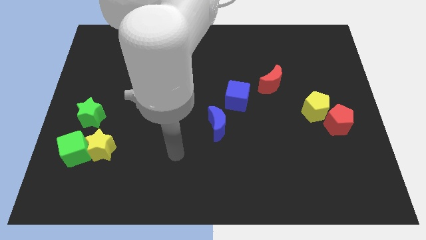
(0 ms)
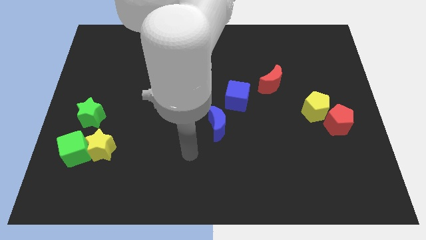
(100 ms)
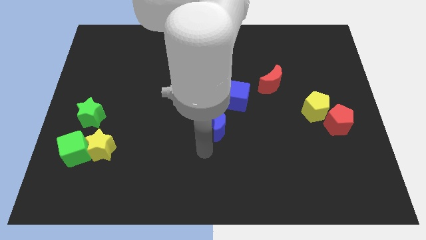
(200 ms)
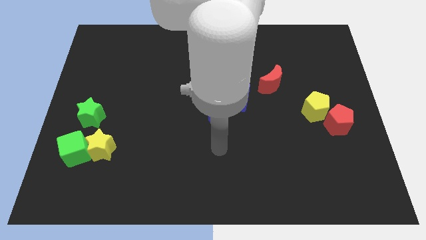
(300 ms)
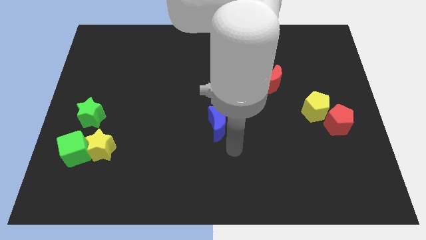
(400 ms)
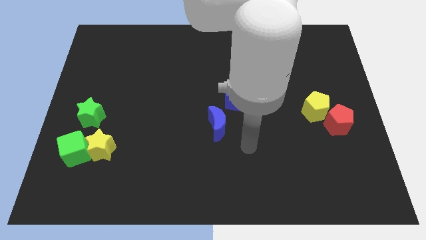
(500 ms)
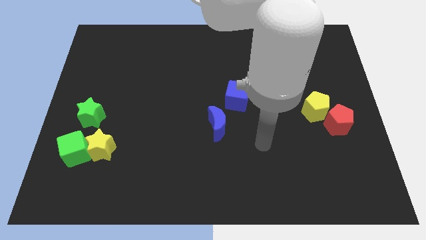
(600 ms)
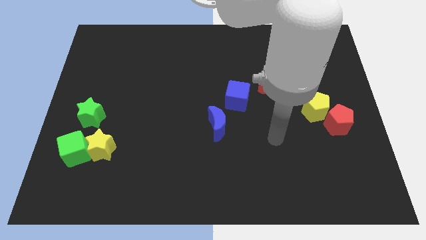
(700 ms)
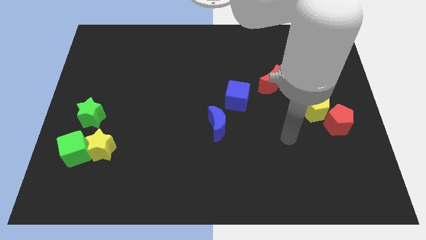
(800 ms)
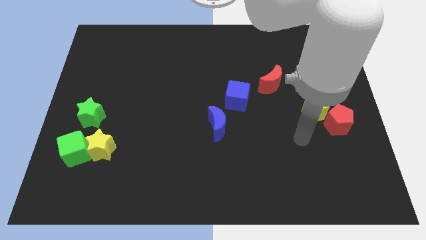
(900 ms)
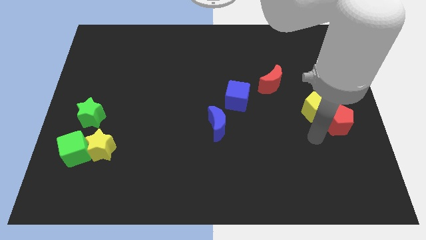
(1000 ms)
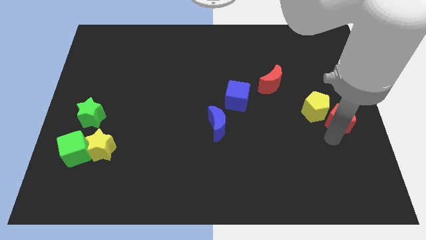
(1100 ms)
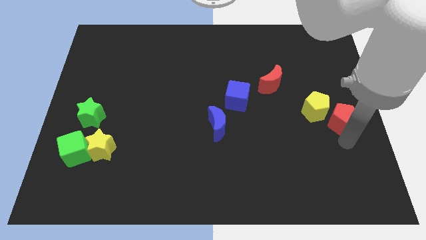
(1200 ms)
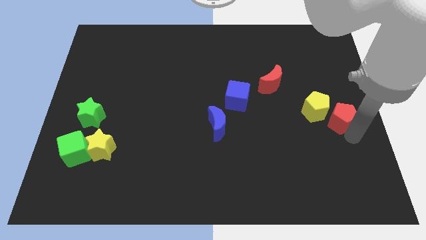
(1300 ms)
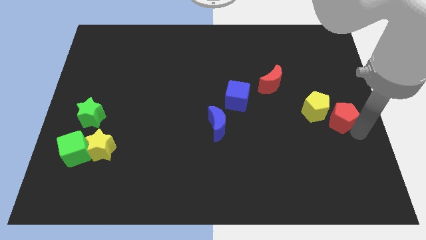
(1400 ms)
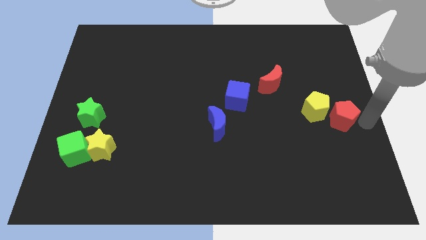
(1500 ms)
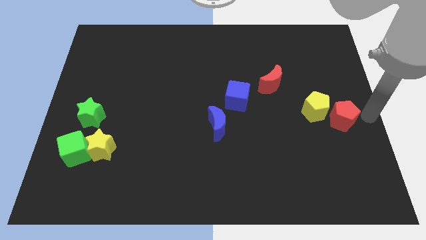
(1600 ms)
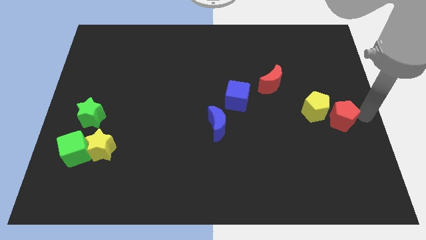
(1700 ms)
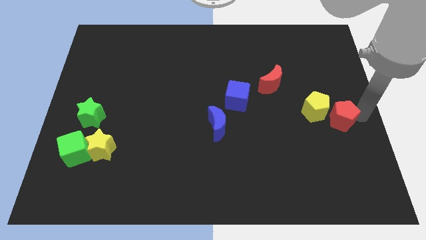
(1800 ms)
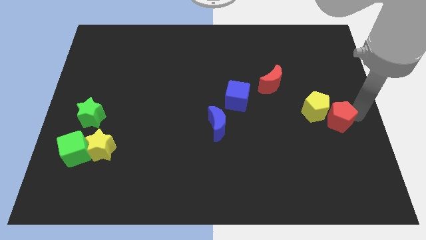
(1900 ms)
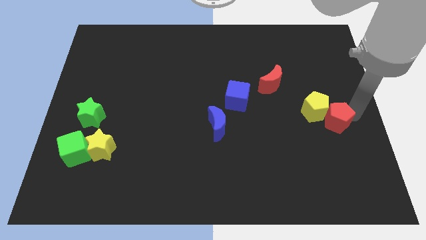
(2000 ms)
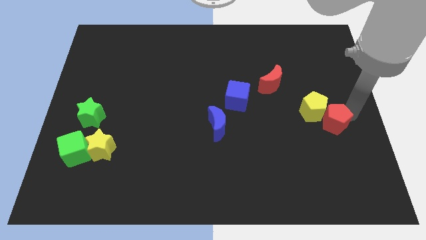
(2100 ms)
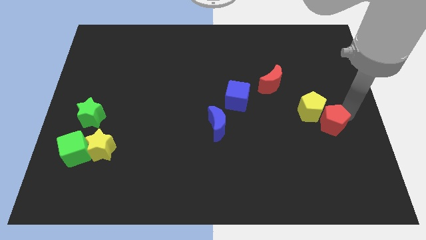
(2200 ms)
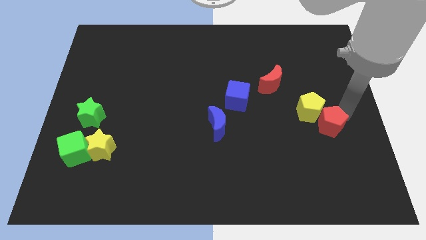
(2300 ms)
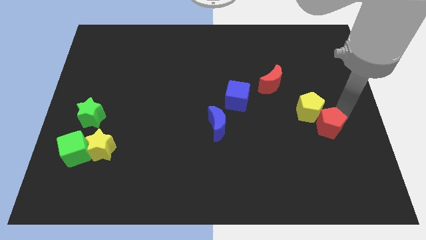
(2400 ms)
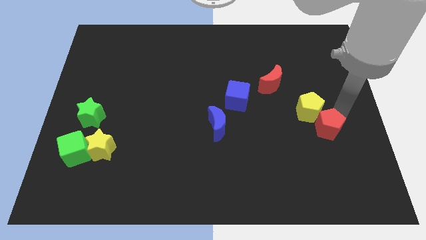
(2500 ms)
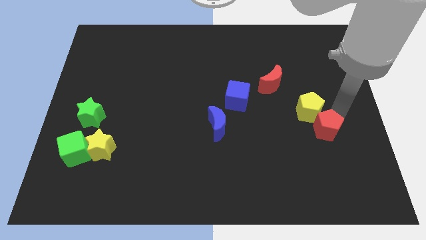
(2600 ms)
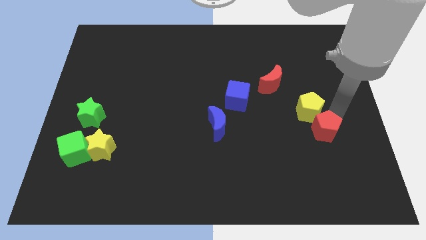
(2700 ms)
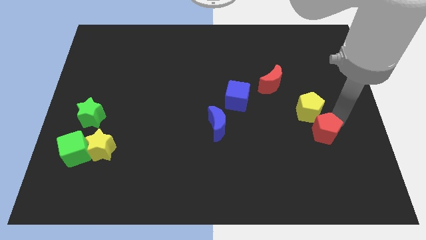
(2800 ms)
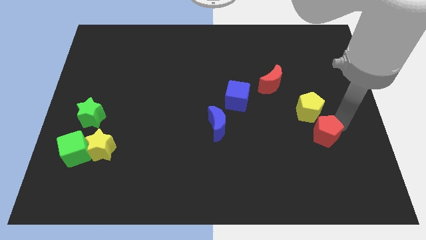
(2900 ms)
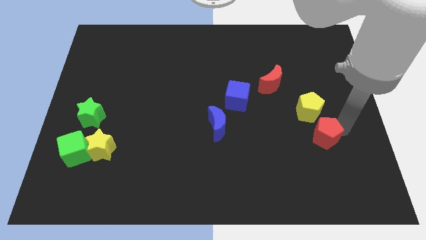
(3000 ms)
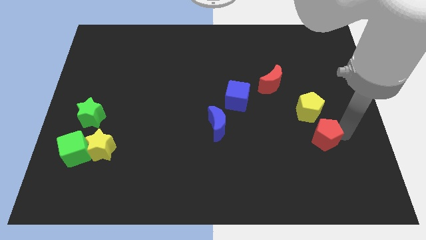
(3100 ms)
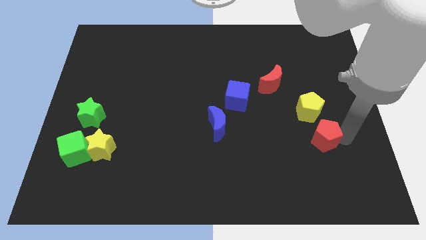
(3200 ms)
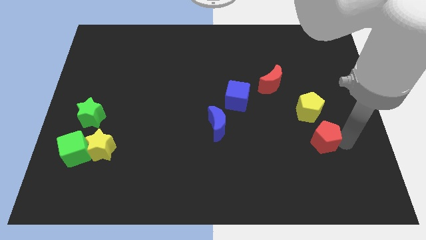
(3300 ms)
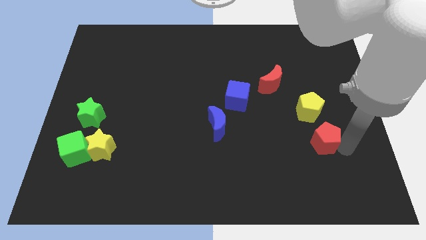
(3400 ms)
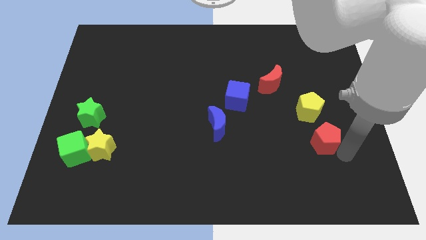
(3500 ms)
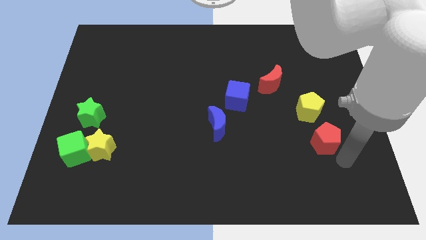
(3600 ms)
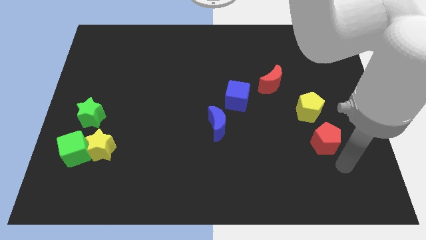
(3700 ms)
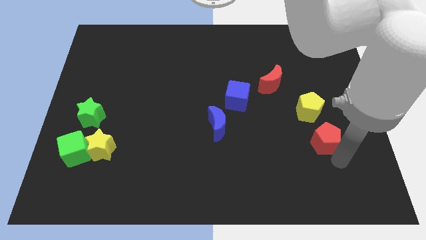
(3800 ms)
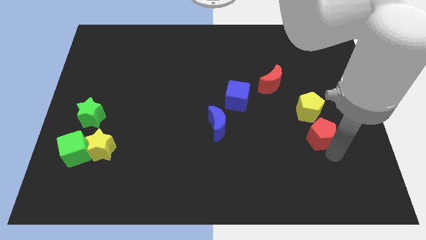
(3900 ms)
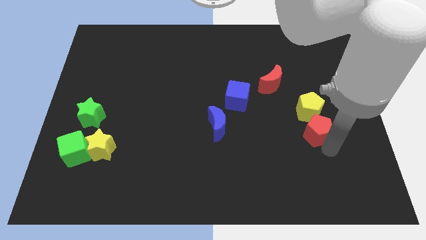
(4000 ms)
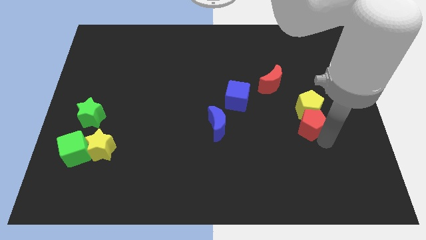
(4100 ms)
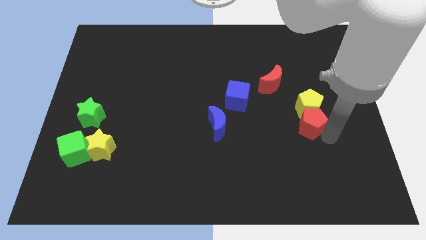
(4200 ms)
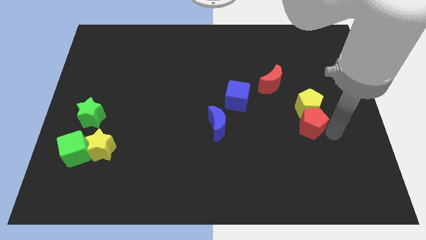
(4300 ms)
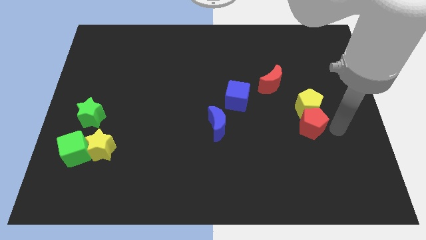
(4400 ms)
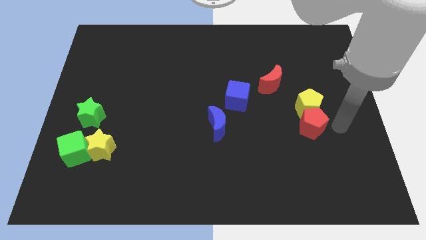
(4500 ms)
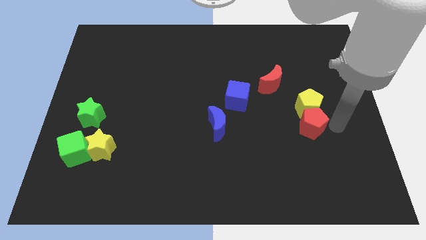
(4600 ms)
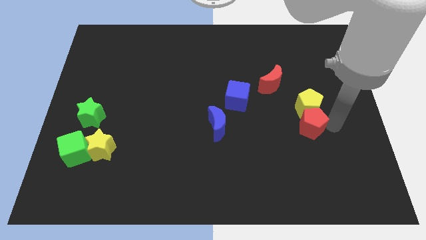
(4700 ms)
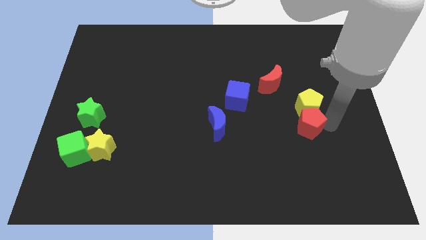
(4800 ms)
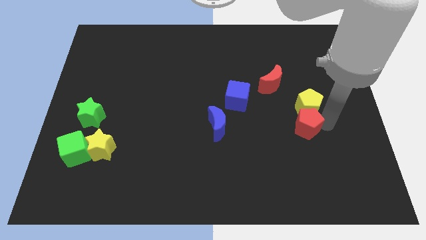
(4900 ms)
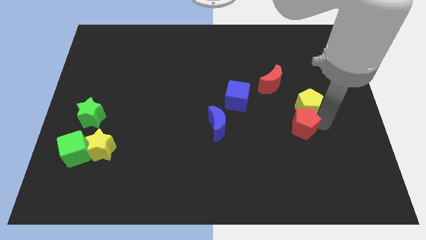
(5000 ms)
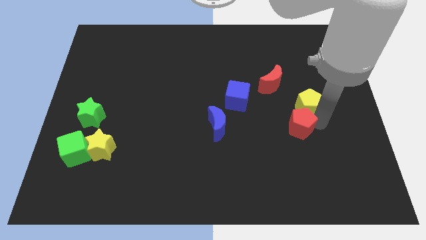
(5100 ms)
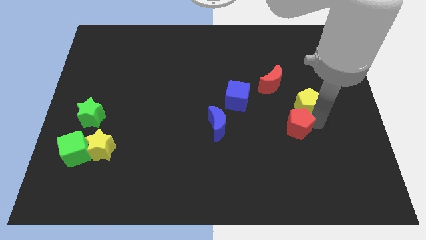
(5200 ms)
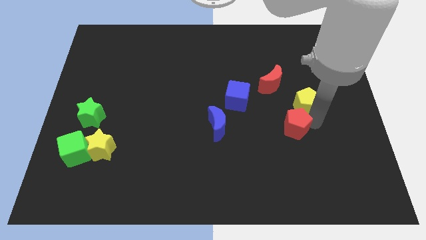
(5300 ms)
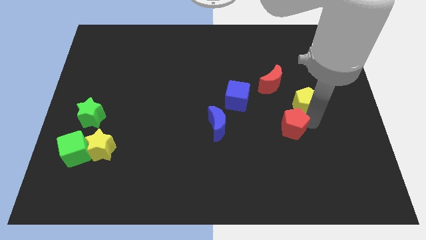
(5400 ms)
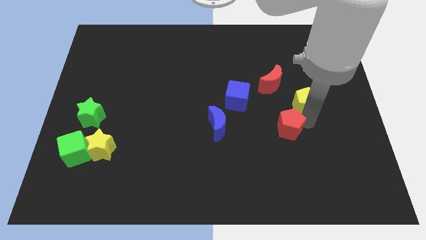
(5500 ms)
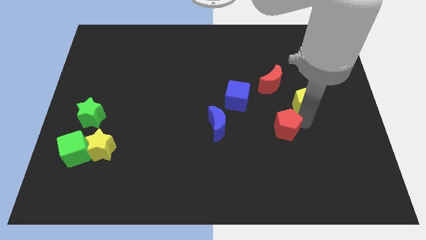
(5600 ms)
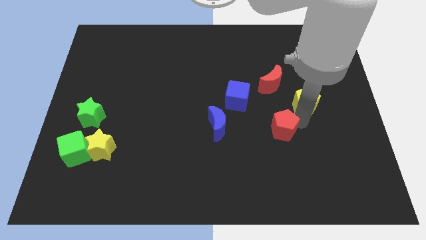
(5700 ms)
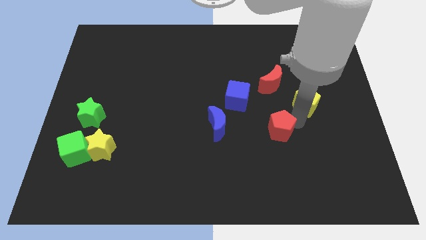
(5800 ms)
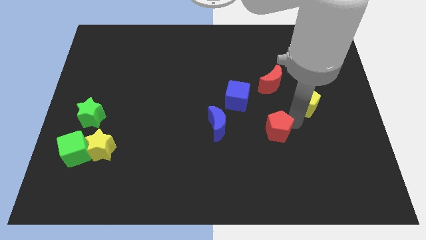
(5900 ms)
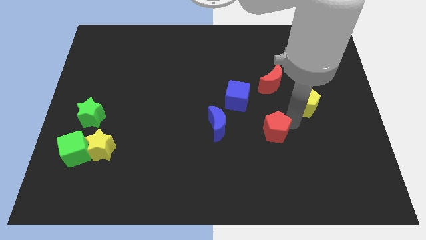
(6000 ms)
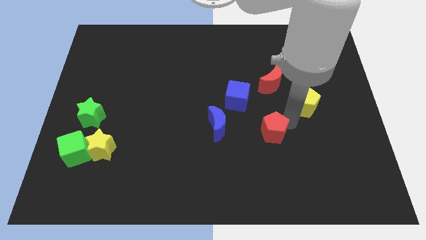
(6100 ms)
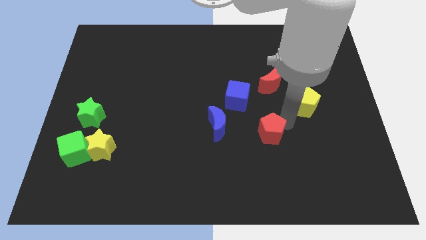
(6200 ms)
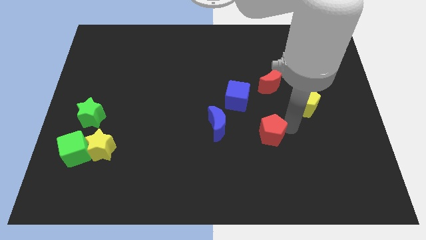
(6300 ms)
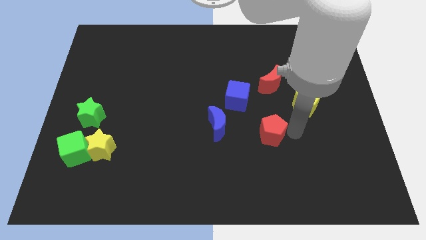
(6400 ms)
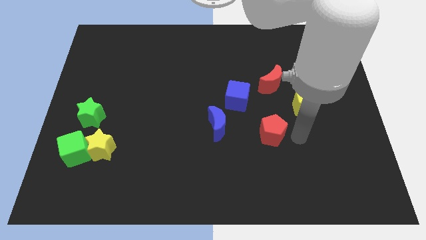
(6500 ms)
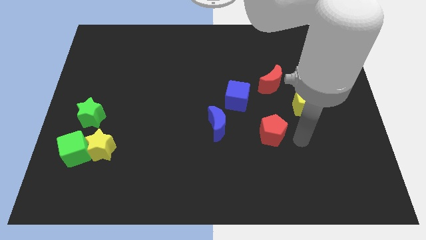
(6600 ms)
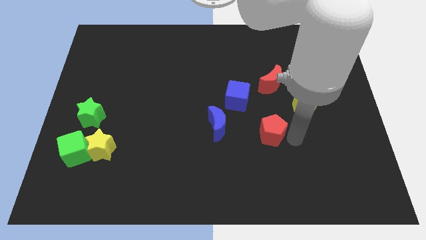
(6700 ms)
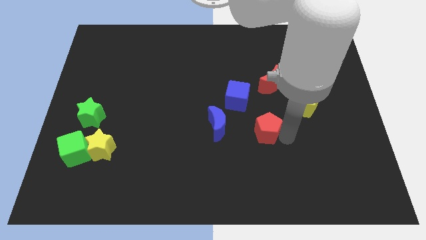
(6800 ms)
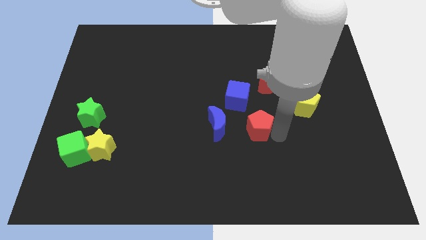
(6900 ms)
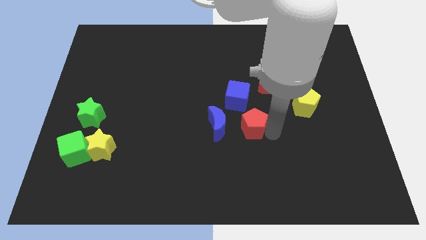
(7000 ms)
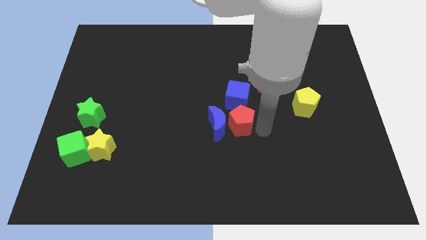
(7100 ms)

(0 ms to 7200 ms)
put the red pentagon close to the blue moon
